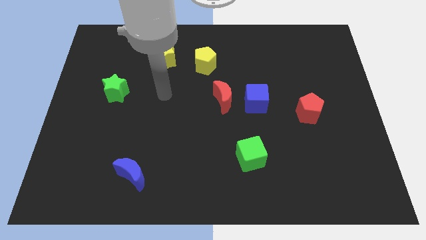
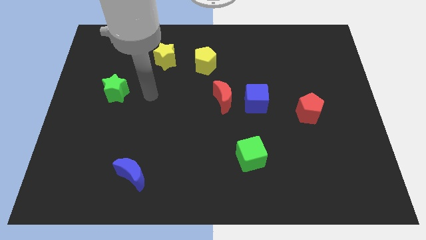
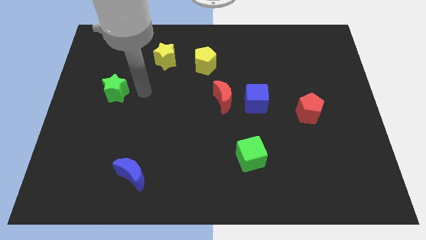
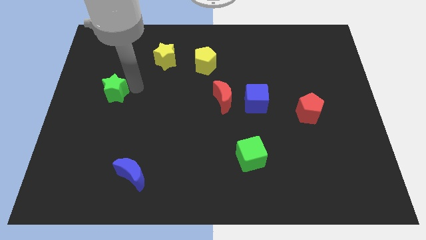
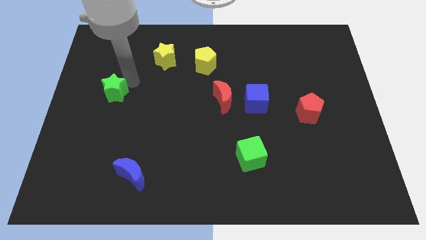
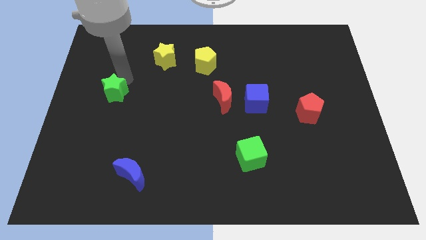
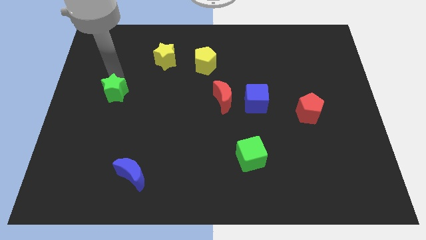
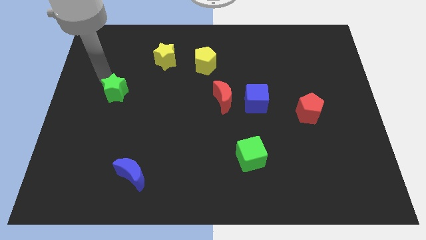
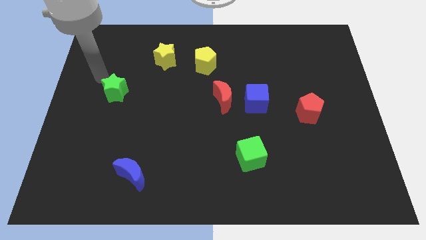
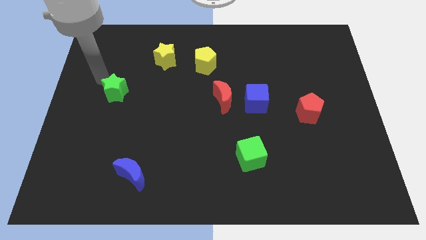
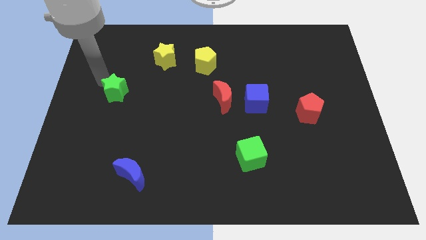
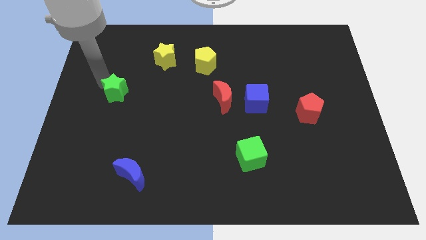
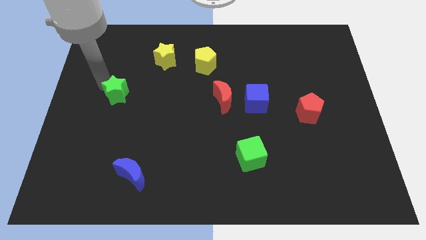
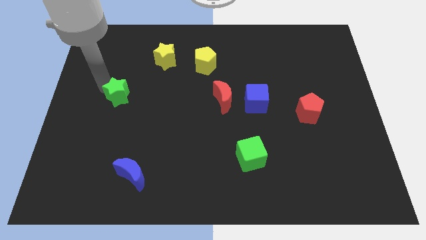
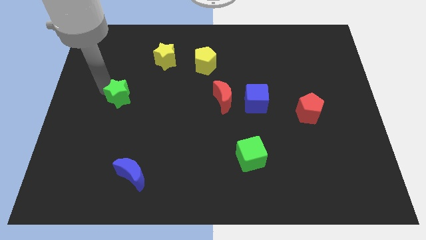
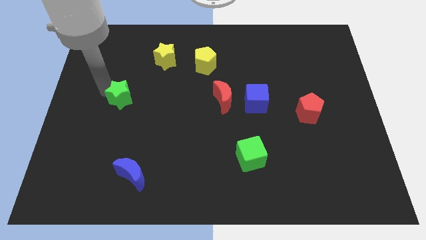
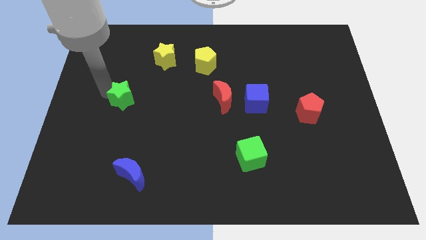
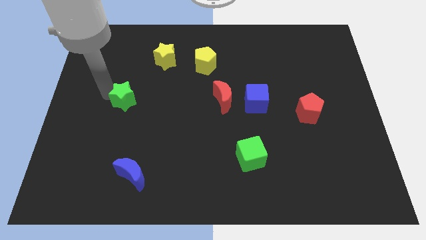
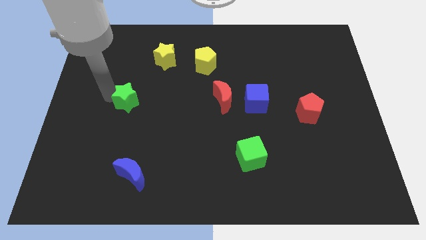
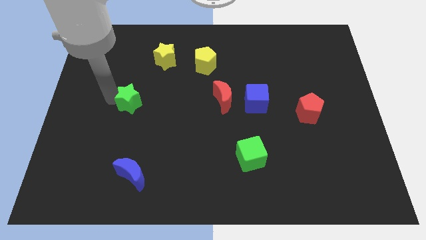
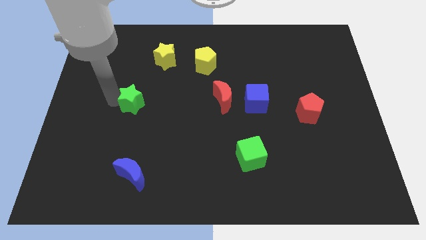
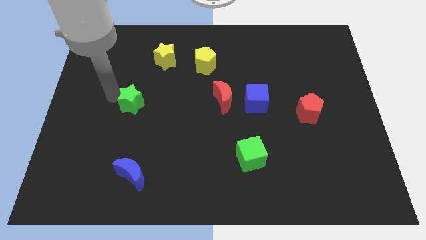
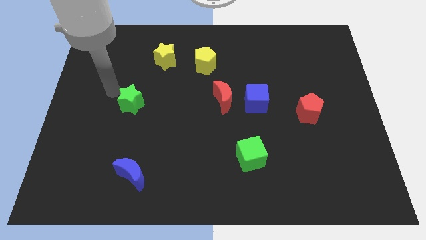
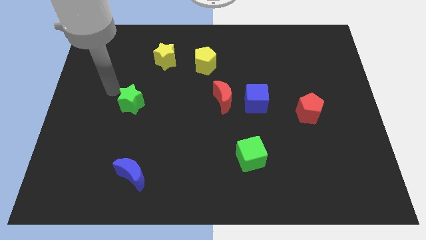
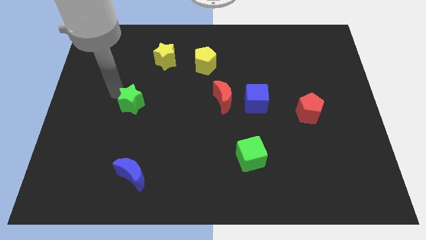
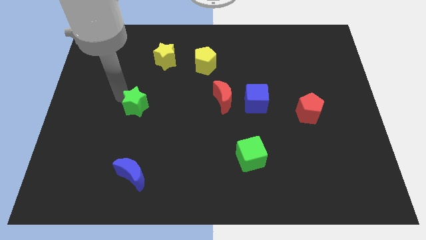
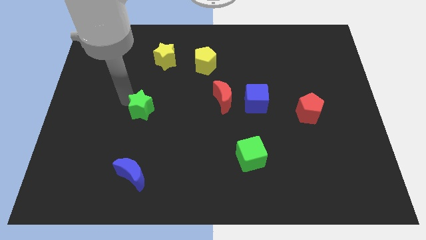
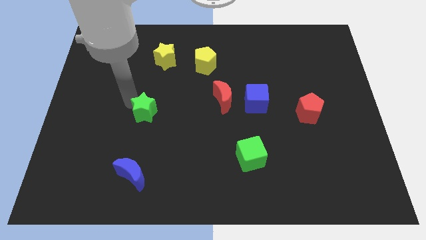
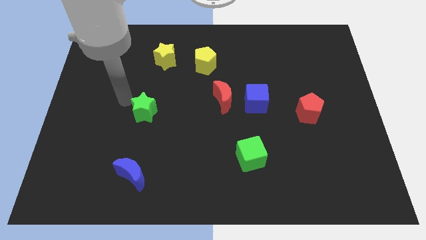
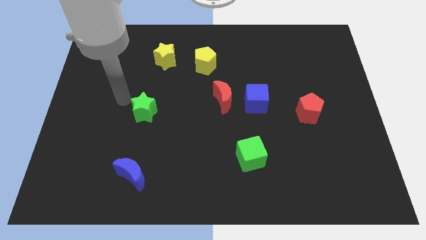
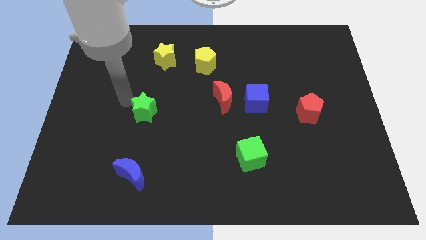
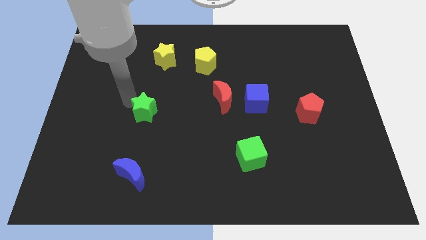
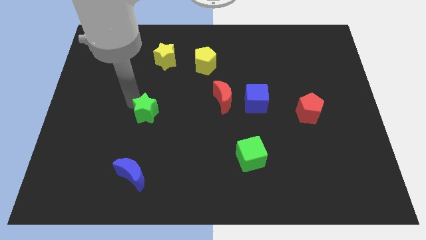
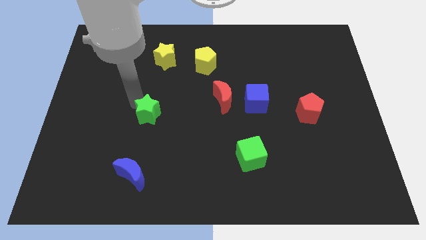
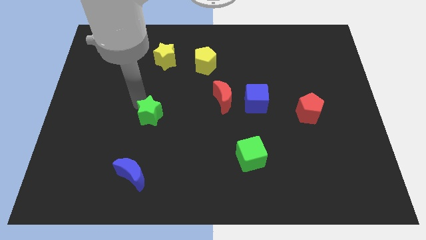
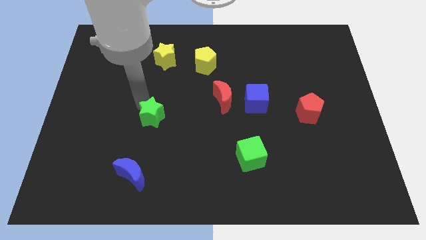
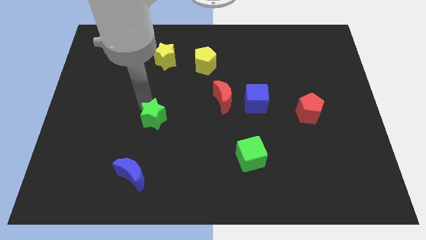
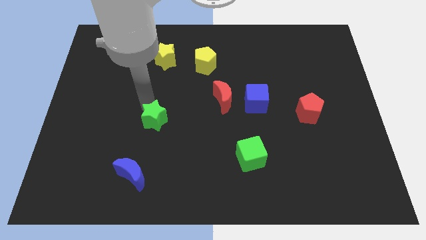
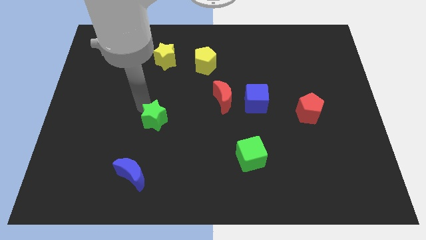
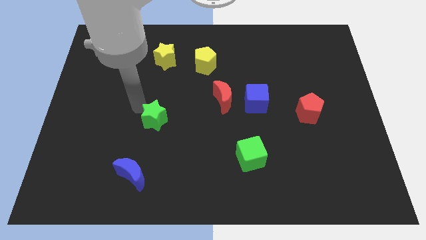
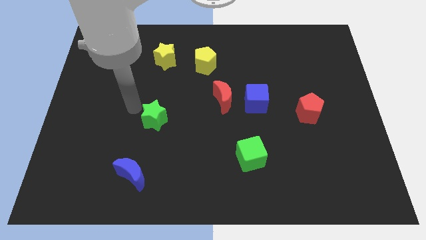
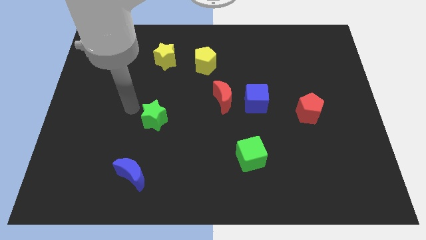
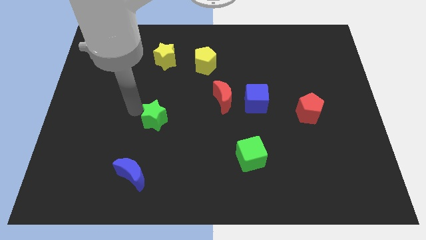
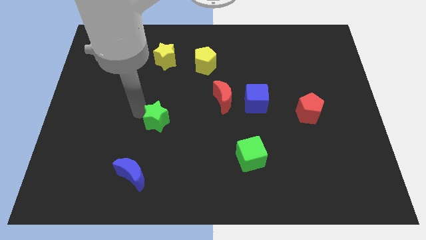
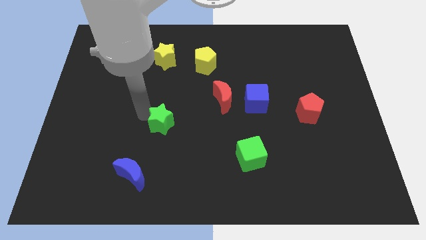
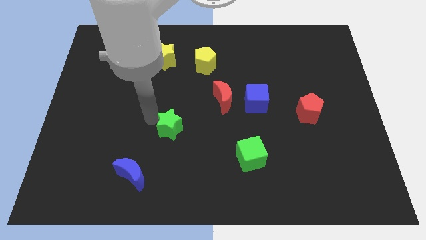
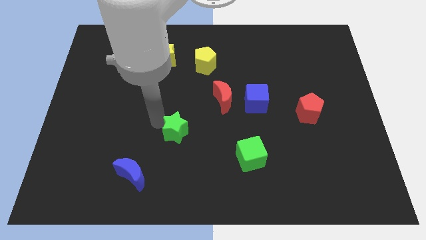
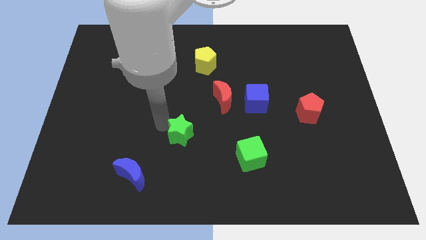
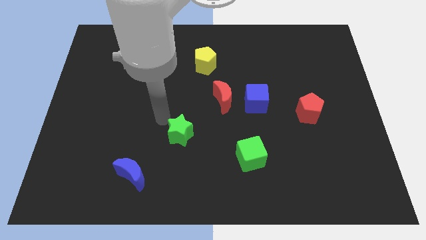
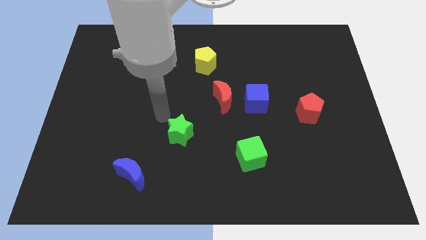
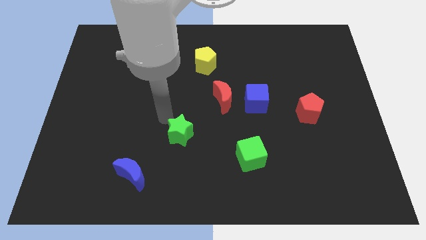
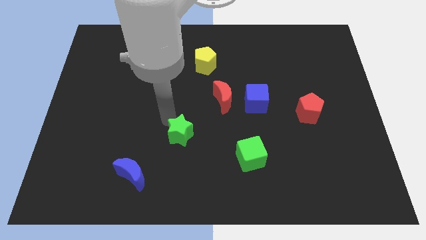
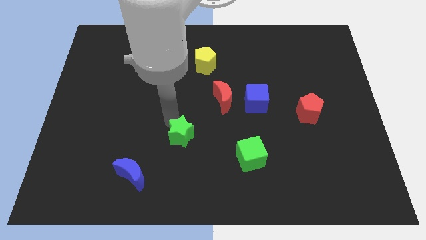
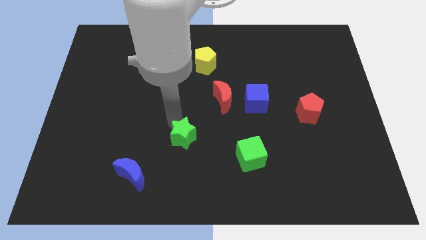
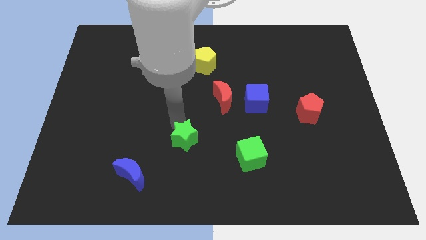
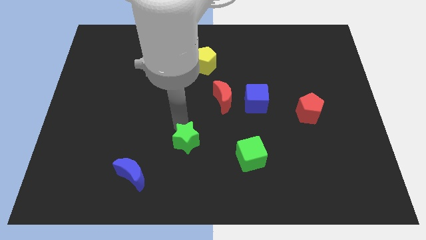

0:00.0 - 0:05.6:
move the green star left of the green cube

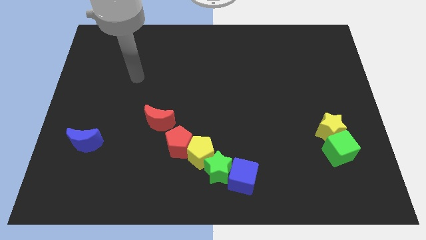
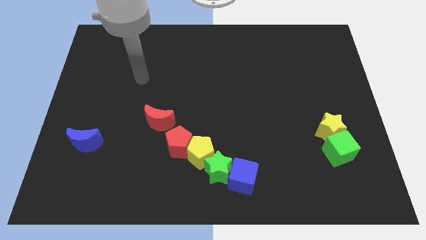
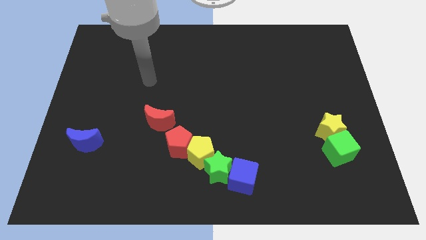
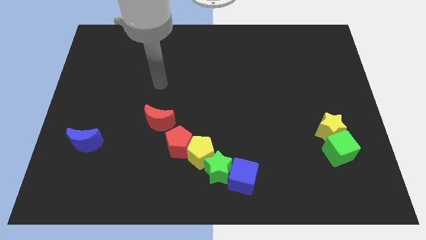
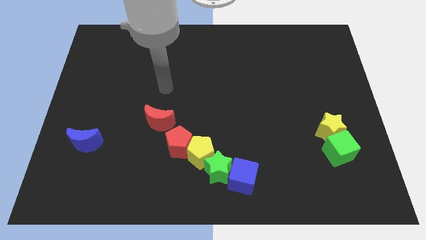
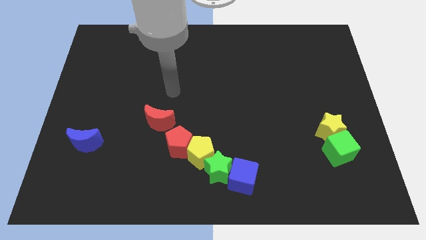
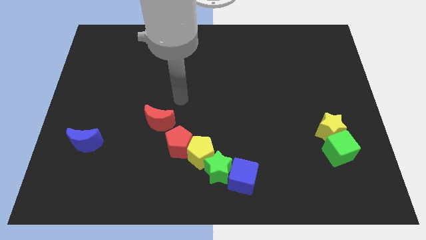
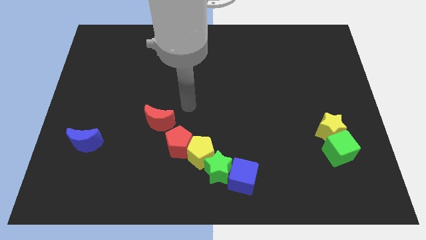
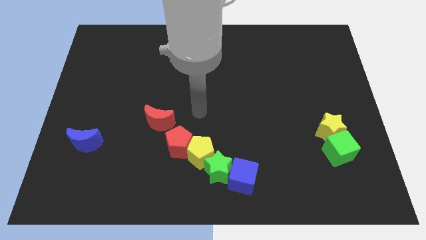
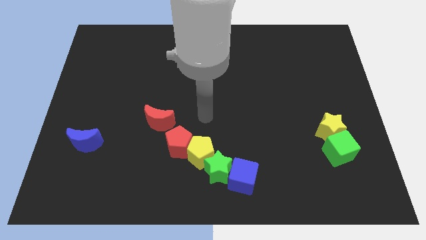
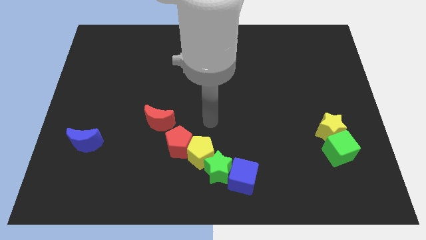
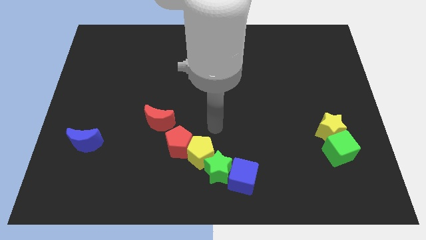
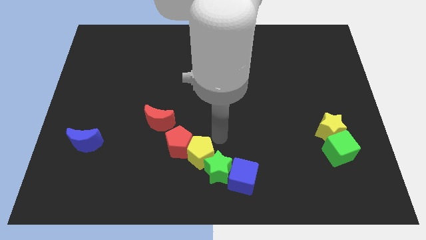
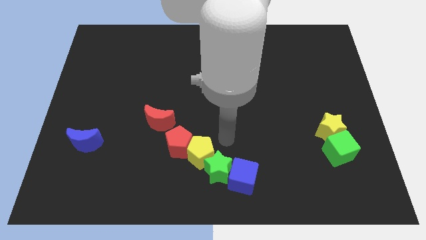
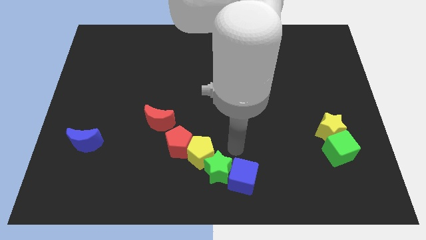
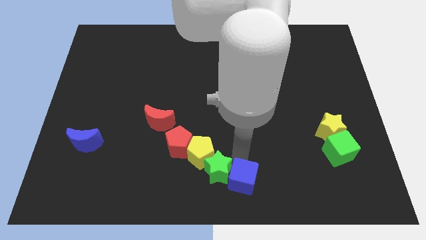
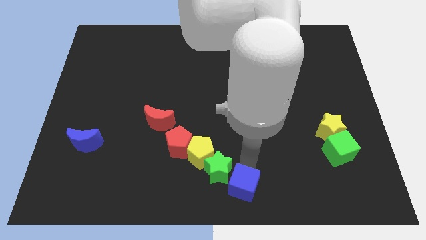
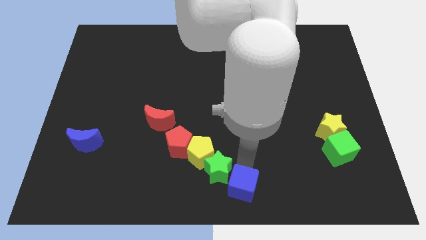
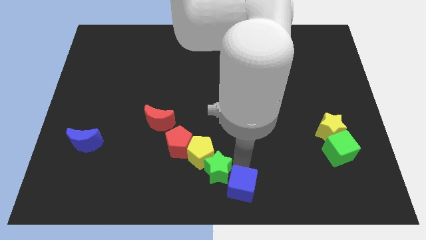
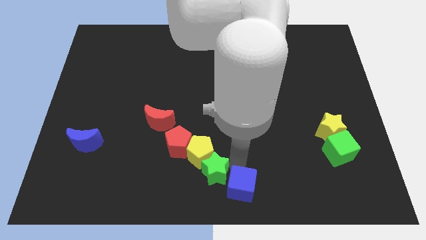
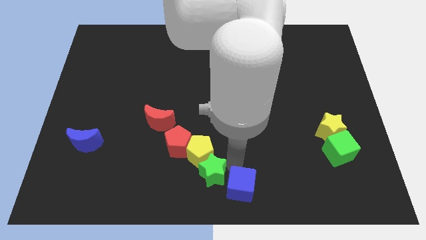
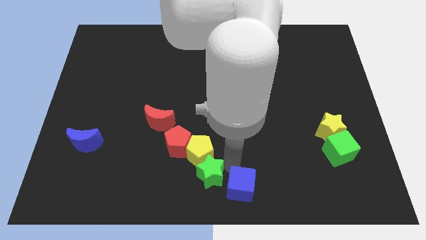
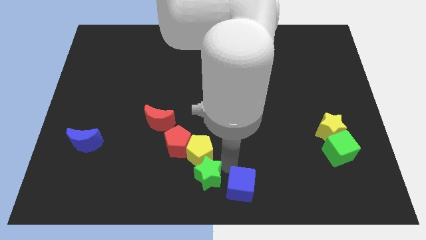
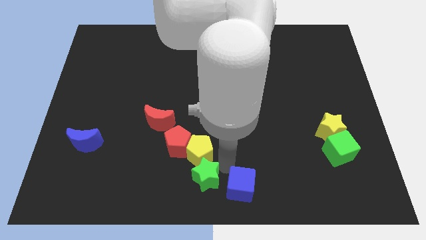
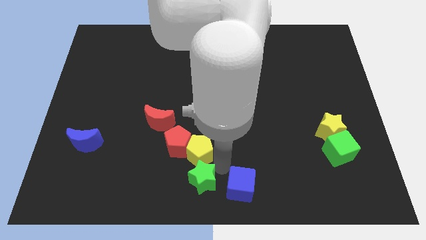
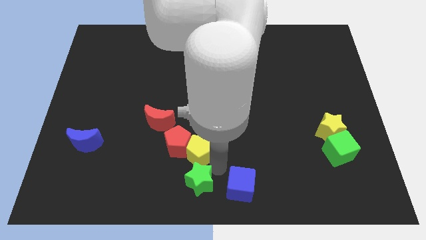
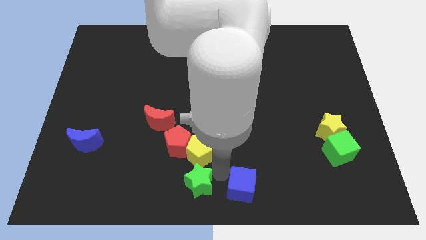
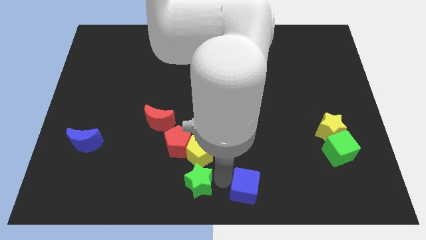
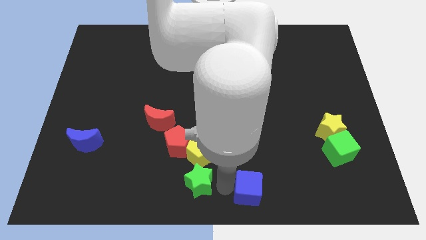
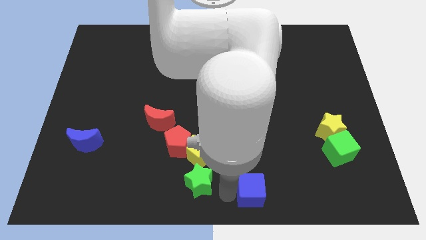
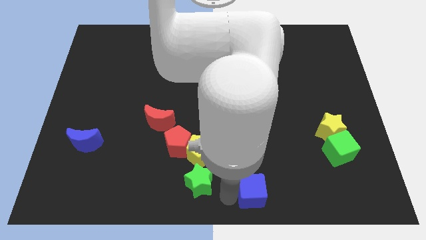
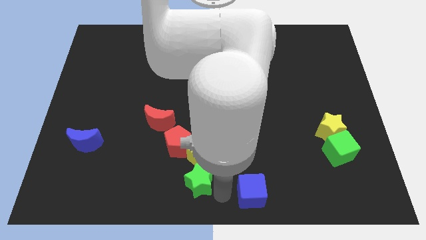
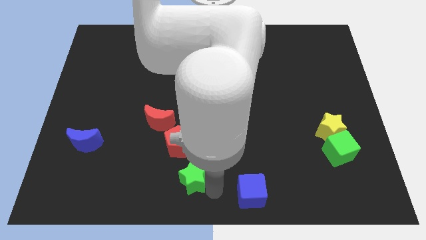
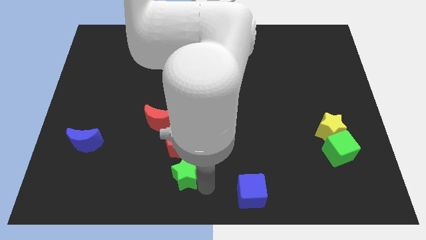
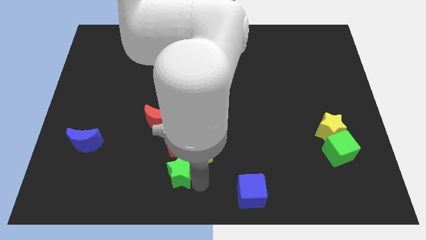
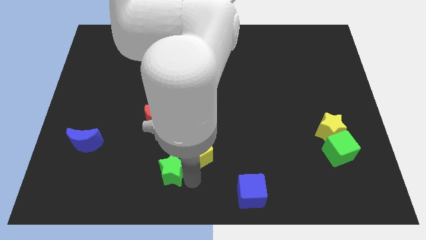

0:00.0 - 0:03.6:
slide the green star to the bottom of the red moon
